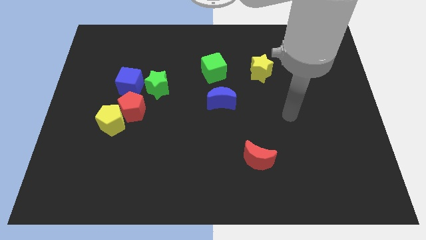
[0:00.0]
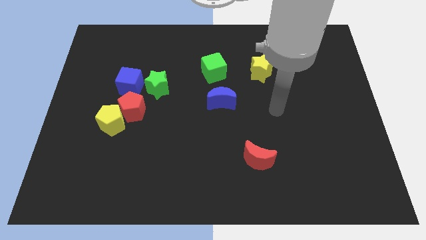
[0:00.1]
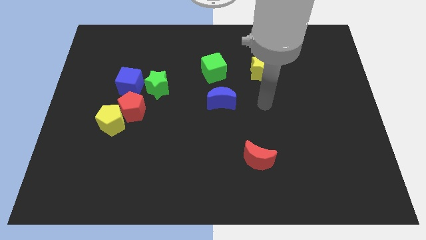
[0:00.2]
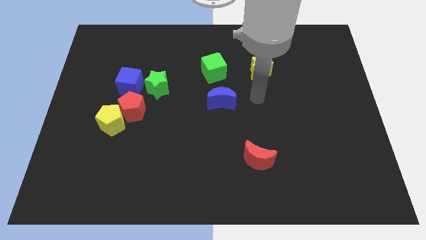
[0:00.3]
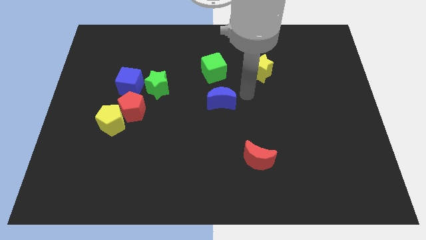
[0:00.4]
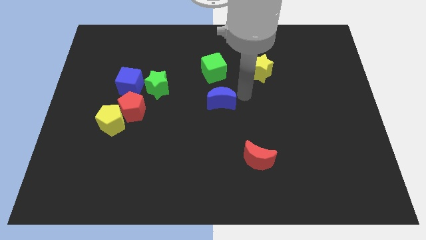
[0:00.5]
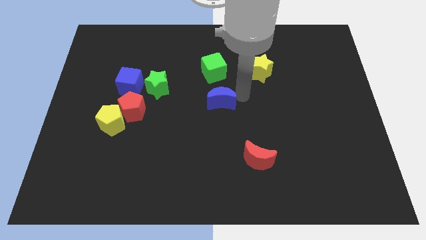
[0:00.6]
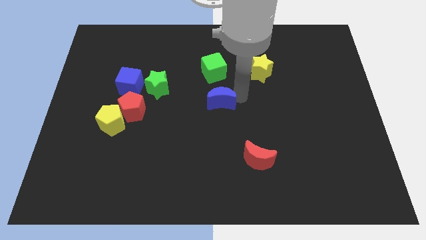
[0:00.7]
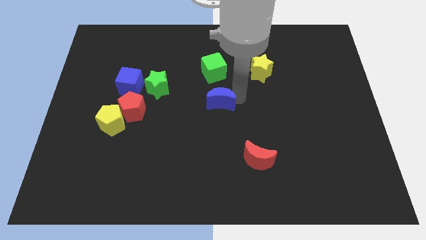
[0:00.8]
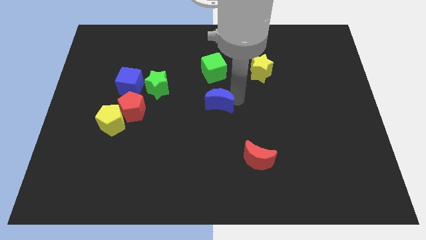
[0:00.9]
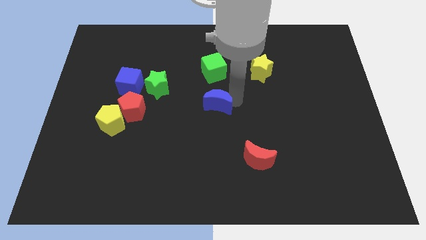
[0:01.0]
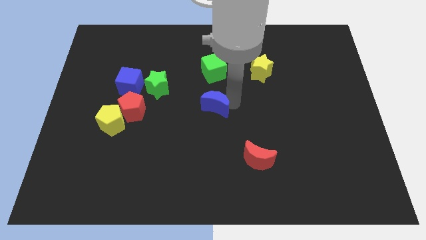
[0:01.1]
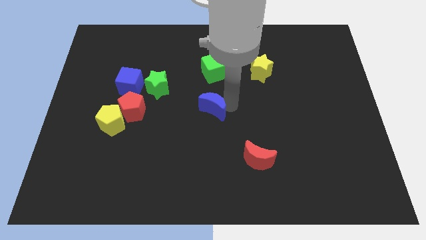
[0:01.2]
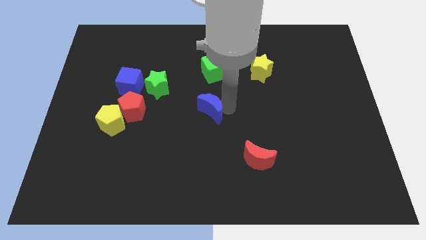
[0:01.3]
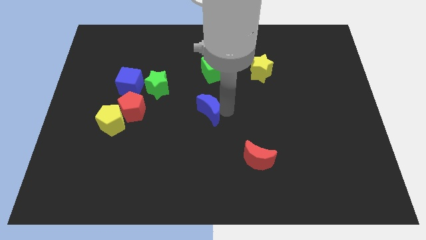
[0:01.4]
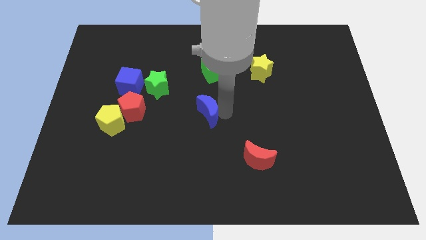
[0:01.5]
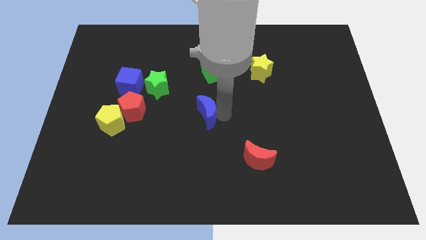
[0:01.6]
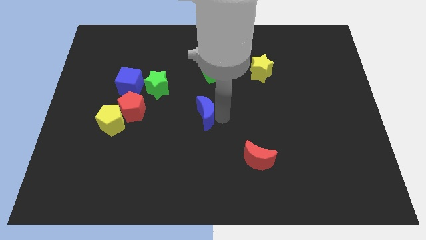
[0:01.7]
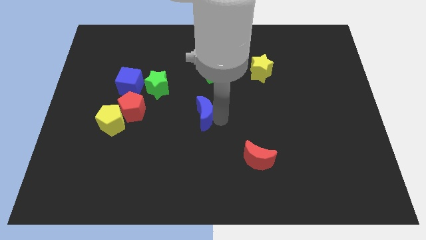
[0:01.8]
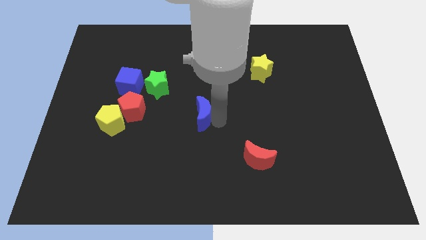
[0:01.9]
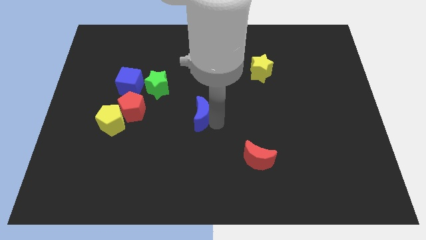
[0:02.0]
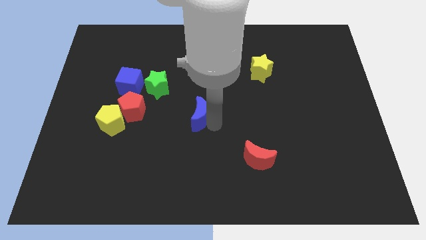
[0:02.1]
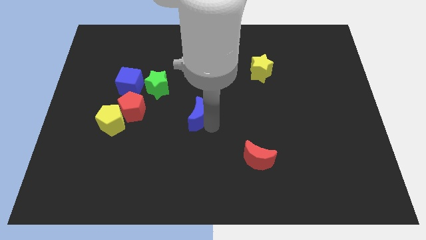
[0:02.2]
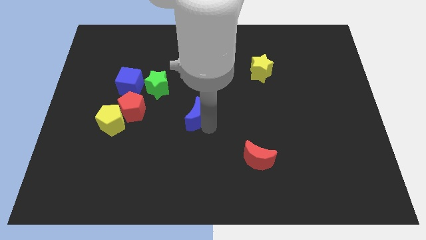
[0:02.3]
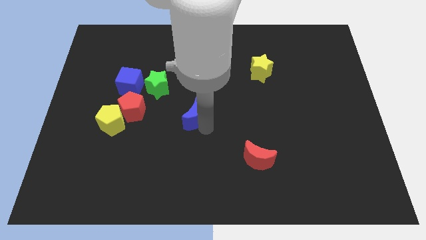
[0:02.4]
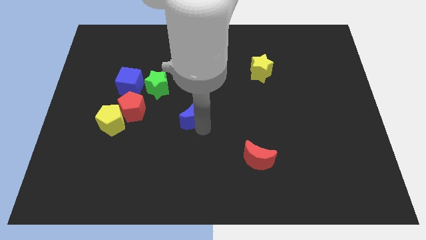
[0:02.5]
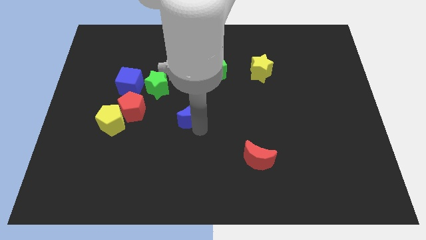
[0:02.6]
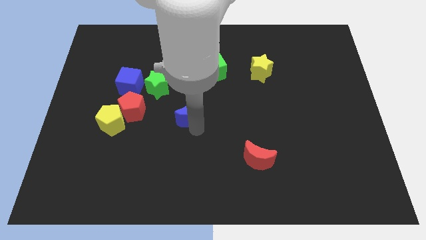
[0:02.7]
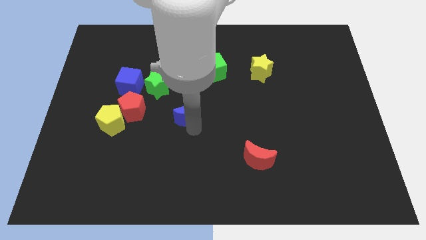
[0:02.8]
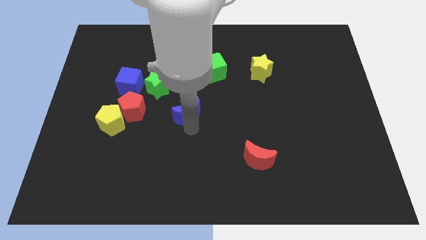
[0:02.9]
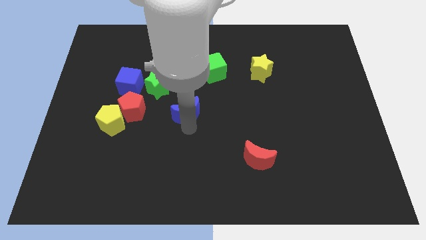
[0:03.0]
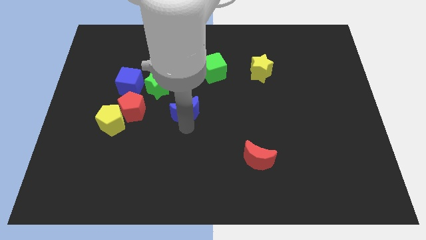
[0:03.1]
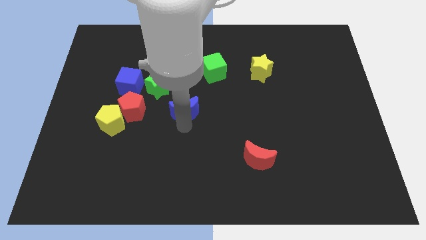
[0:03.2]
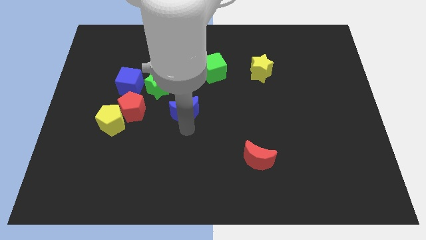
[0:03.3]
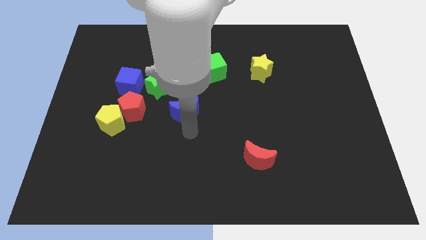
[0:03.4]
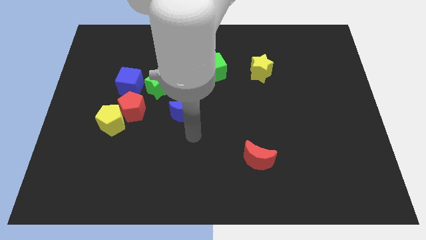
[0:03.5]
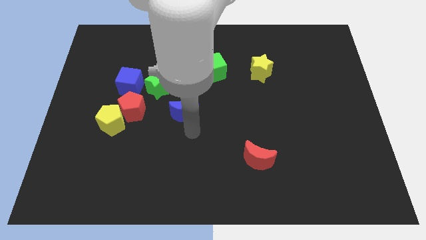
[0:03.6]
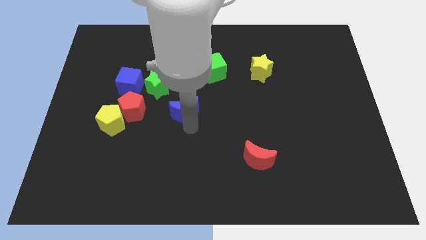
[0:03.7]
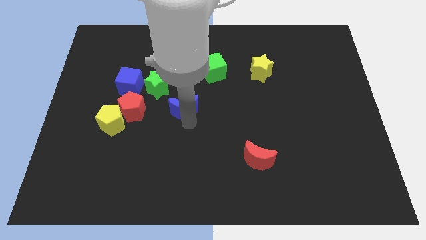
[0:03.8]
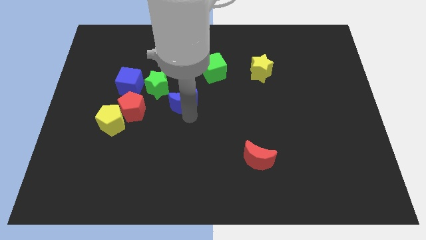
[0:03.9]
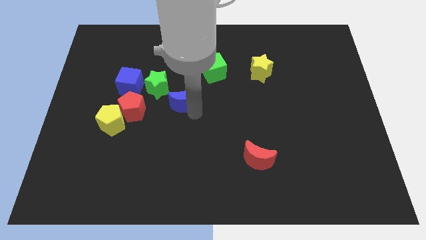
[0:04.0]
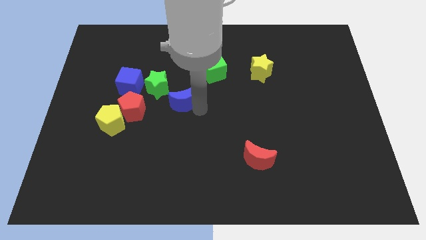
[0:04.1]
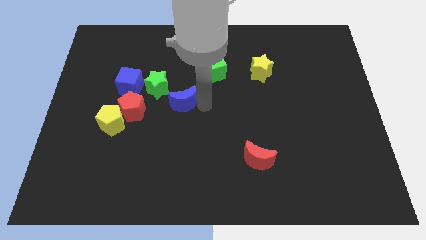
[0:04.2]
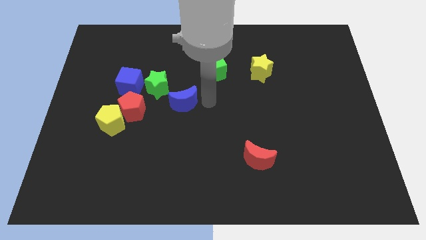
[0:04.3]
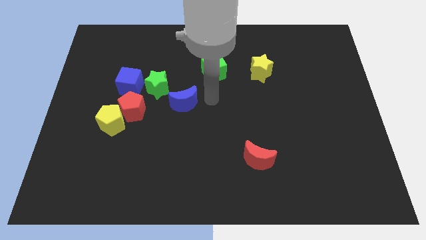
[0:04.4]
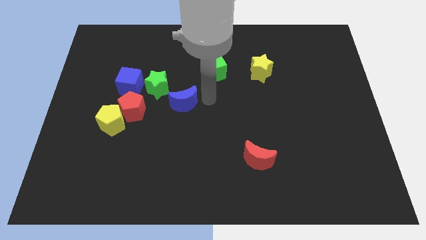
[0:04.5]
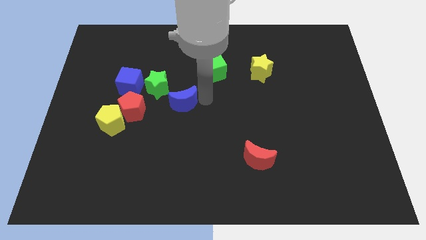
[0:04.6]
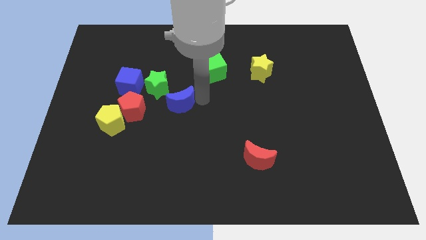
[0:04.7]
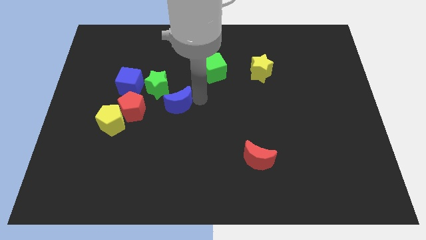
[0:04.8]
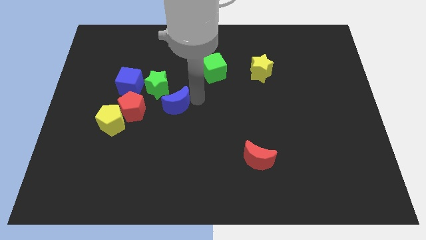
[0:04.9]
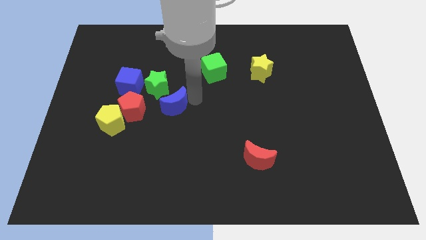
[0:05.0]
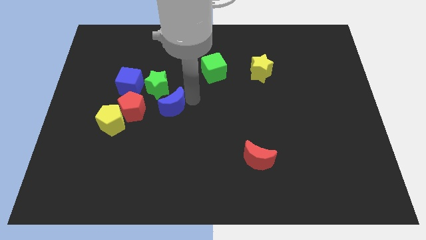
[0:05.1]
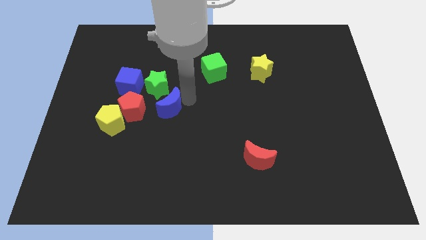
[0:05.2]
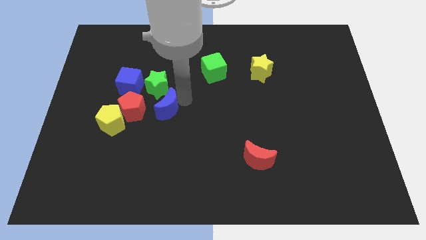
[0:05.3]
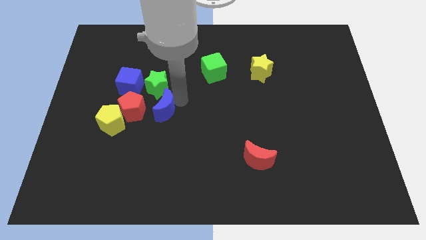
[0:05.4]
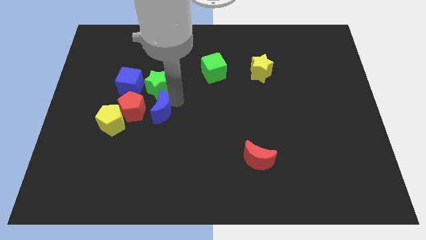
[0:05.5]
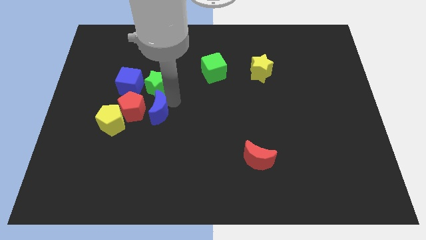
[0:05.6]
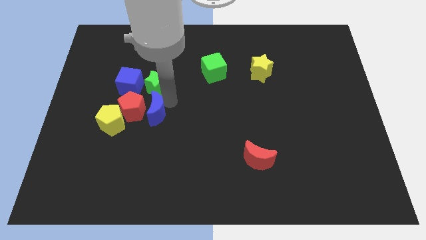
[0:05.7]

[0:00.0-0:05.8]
put the blue moon to the red pentagon

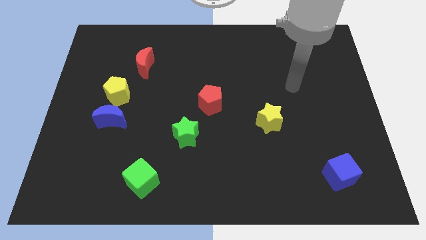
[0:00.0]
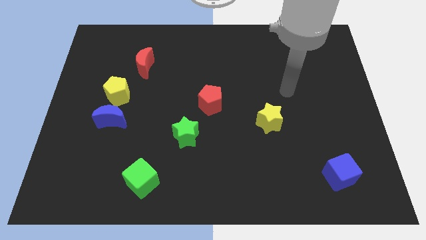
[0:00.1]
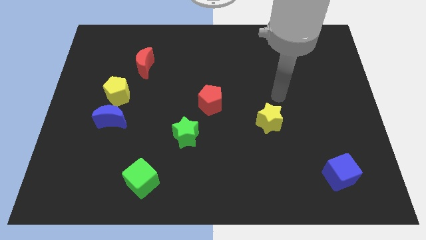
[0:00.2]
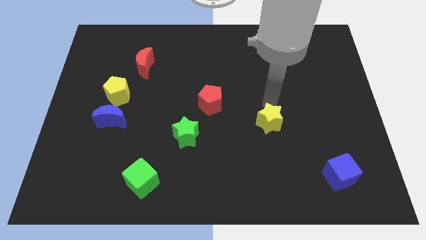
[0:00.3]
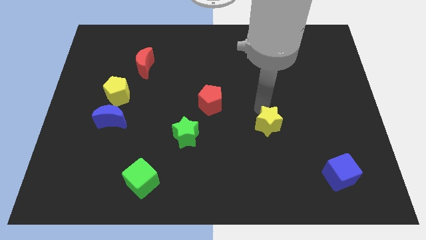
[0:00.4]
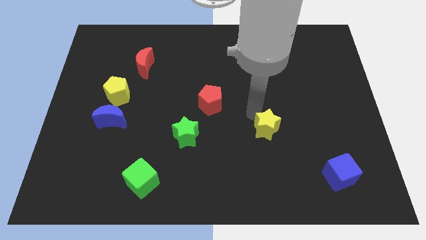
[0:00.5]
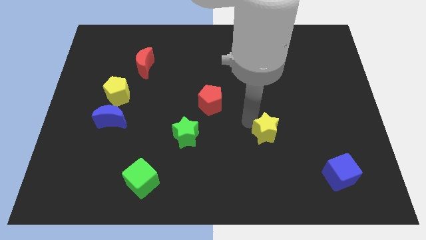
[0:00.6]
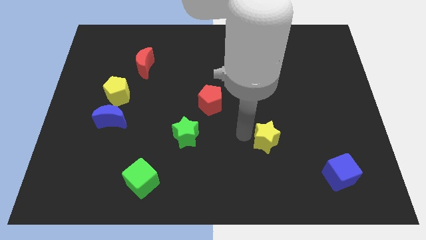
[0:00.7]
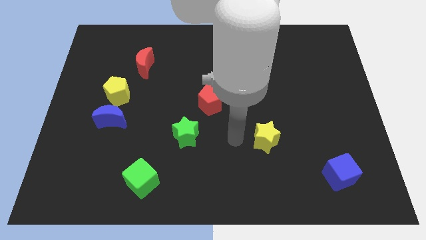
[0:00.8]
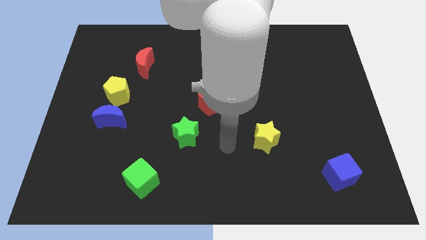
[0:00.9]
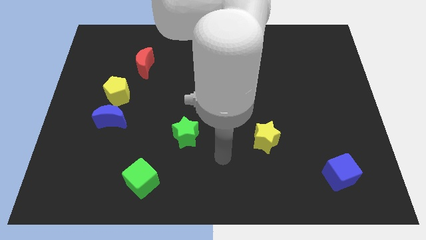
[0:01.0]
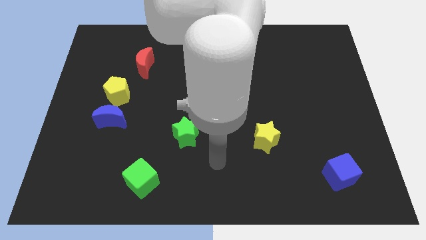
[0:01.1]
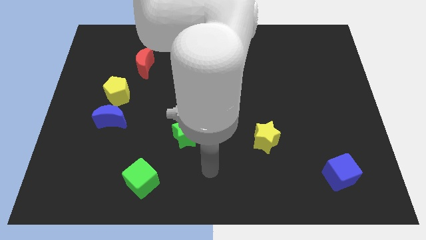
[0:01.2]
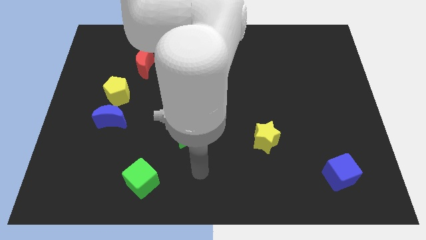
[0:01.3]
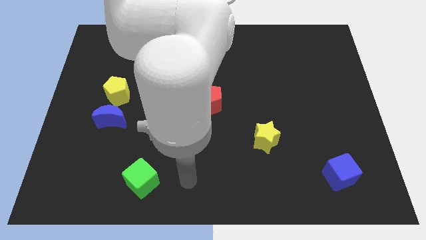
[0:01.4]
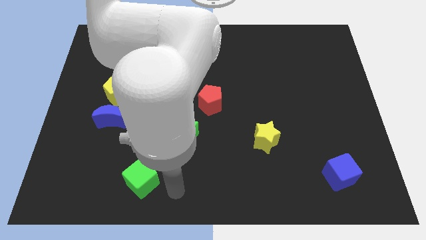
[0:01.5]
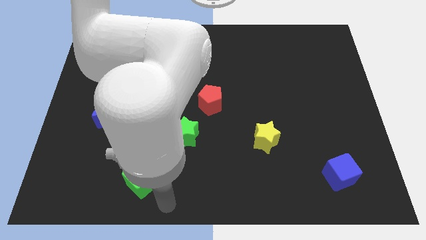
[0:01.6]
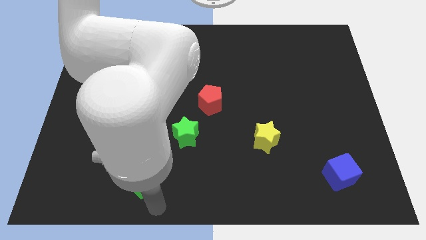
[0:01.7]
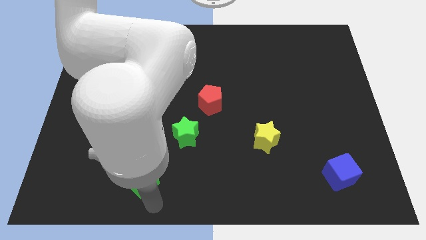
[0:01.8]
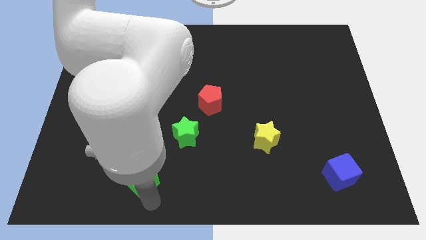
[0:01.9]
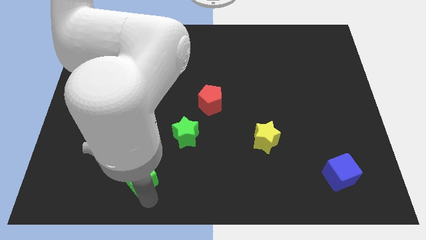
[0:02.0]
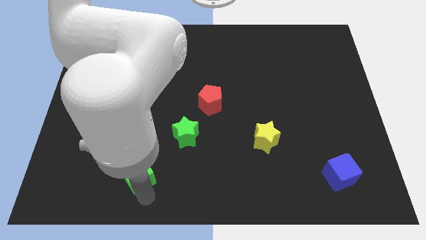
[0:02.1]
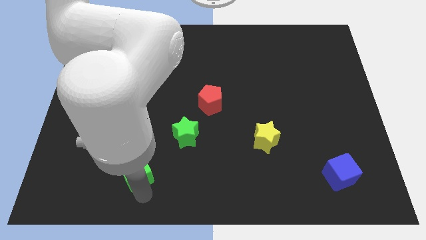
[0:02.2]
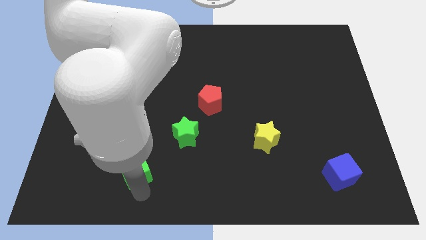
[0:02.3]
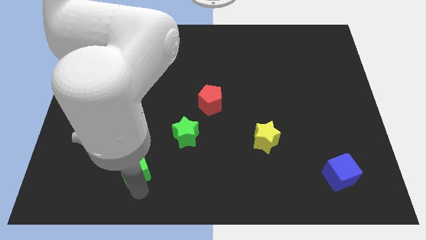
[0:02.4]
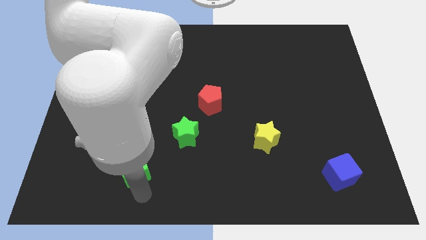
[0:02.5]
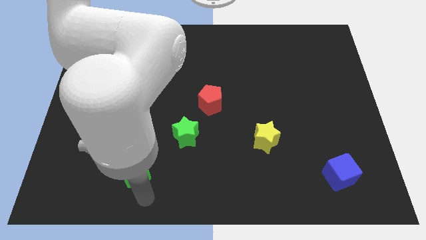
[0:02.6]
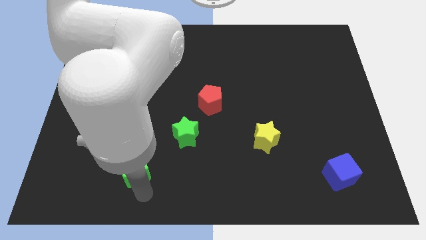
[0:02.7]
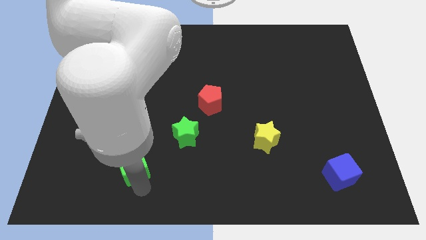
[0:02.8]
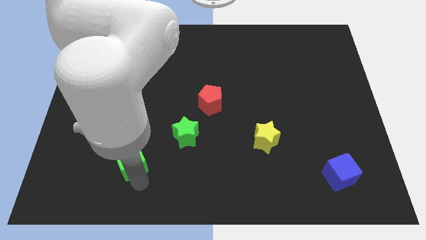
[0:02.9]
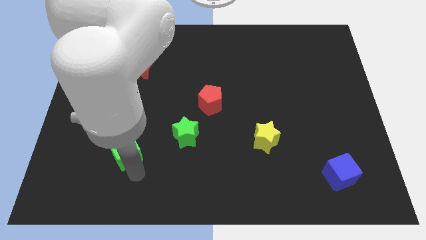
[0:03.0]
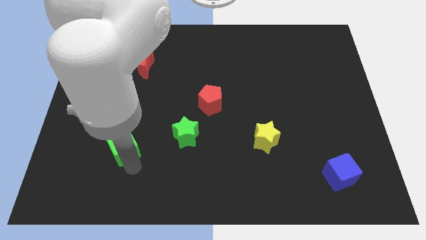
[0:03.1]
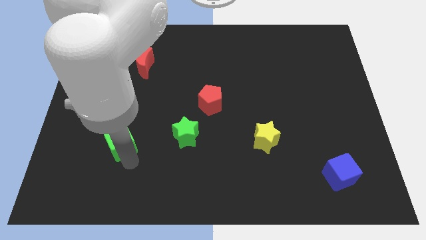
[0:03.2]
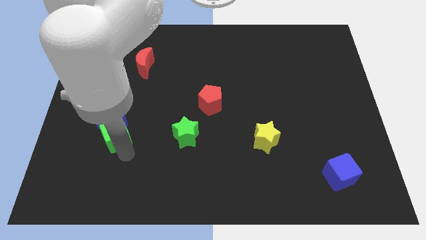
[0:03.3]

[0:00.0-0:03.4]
push the green cube next to the blue moon
